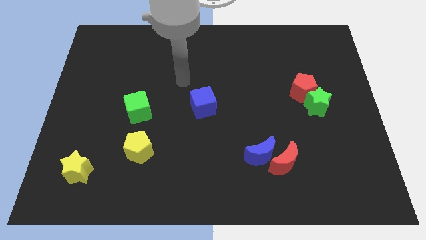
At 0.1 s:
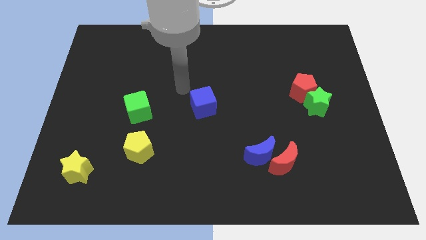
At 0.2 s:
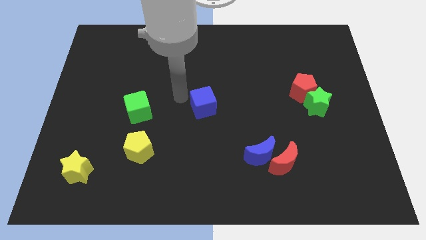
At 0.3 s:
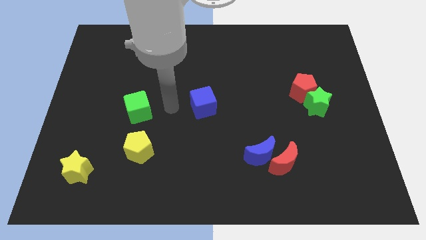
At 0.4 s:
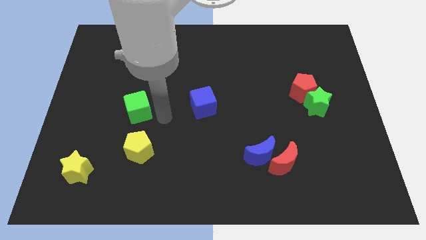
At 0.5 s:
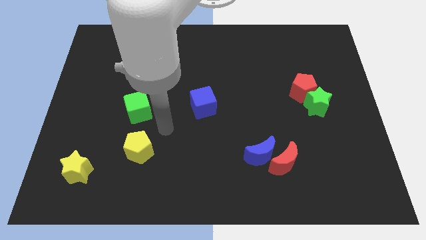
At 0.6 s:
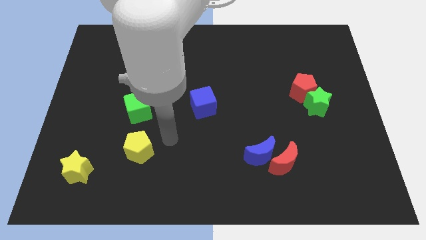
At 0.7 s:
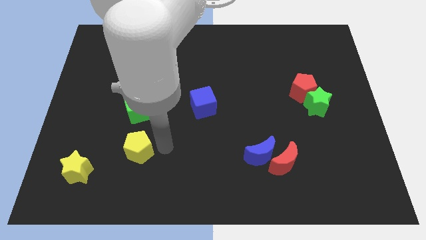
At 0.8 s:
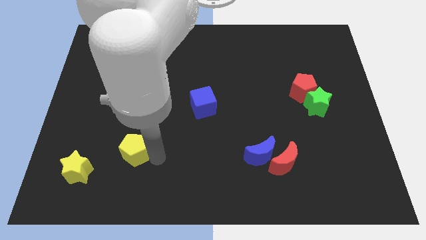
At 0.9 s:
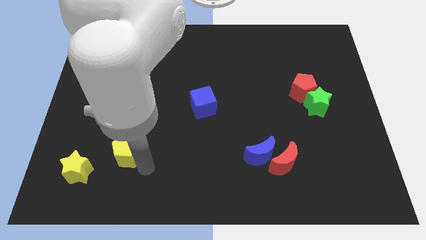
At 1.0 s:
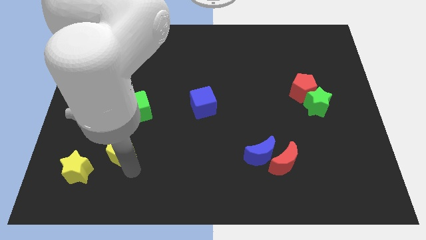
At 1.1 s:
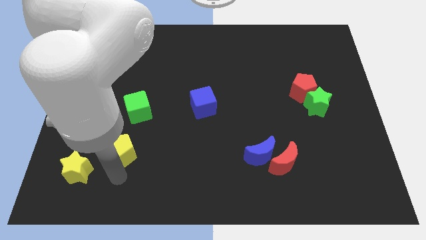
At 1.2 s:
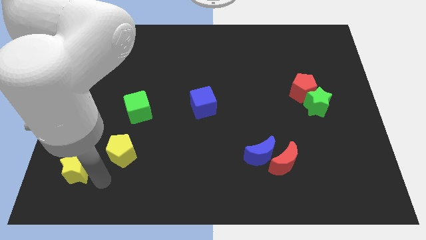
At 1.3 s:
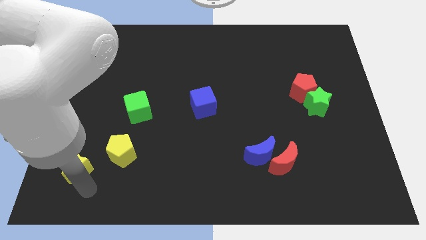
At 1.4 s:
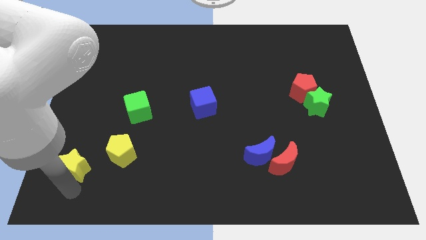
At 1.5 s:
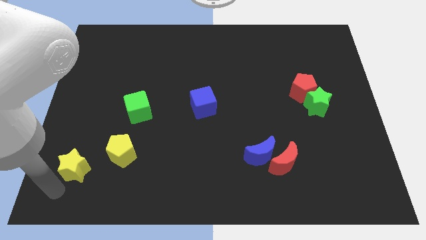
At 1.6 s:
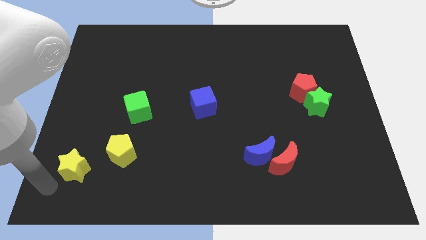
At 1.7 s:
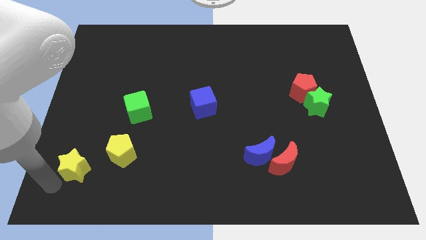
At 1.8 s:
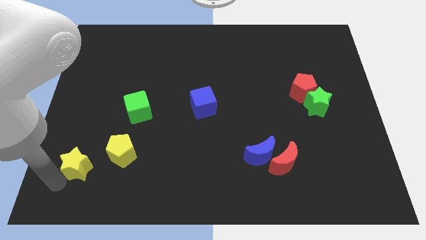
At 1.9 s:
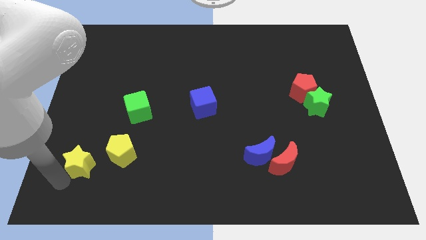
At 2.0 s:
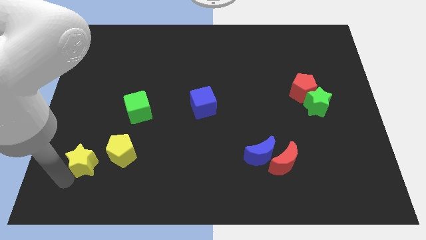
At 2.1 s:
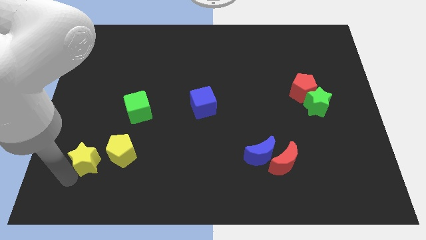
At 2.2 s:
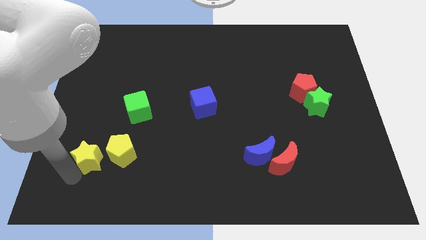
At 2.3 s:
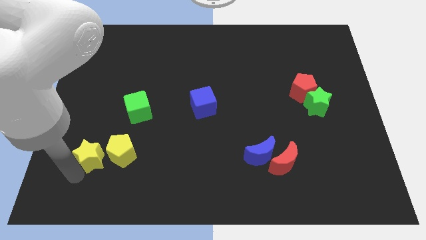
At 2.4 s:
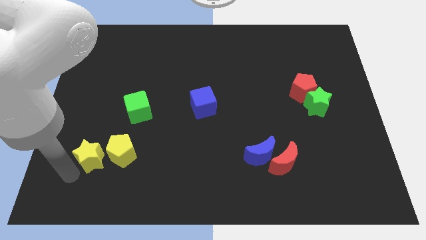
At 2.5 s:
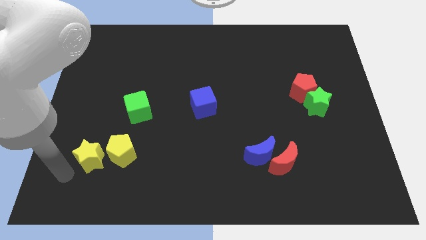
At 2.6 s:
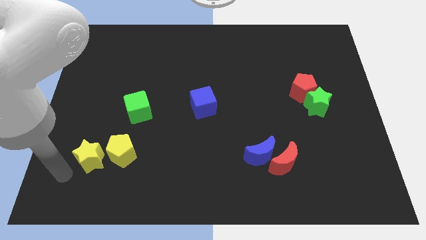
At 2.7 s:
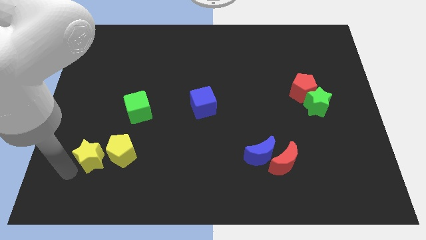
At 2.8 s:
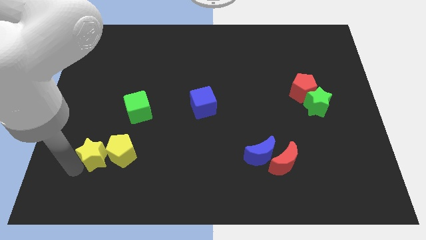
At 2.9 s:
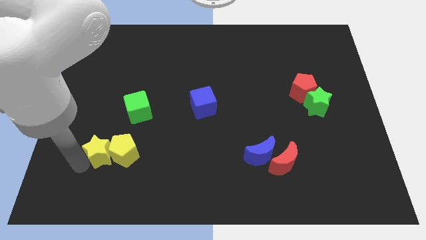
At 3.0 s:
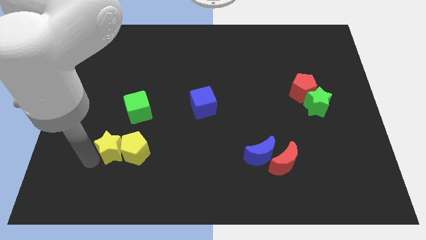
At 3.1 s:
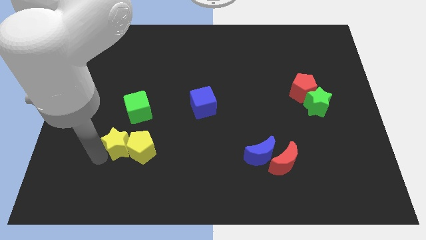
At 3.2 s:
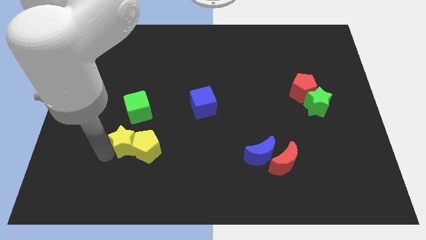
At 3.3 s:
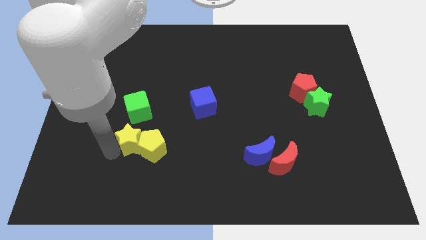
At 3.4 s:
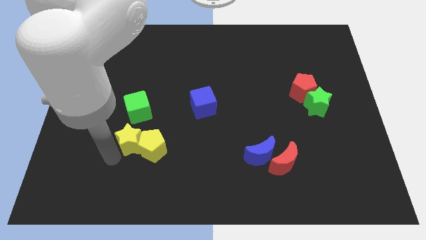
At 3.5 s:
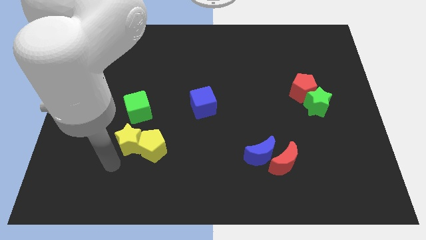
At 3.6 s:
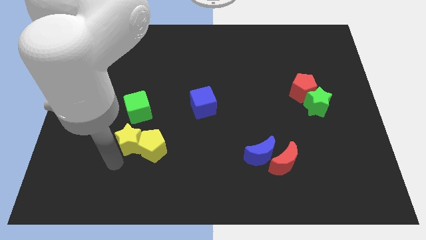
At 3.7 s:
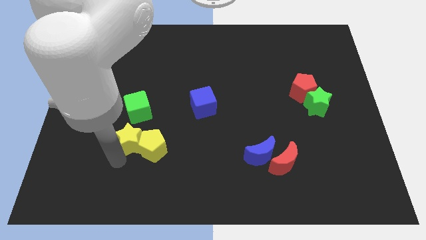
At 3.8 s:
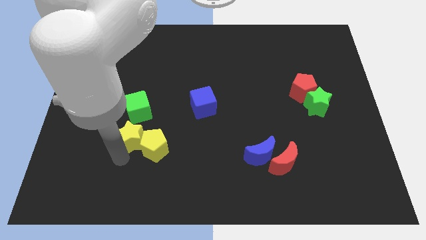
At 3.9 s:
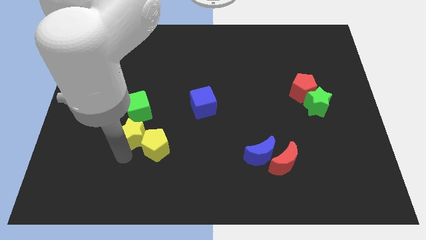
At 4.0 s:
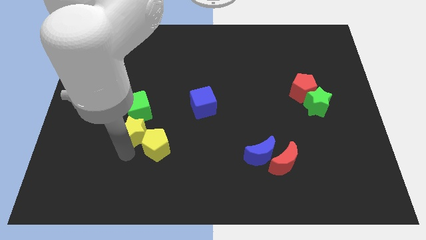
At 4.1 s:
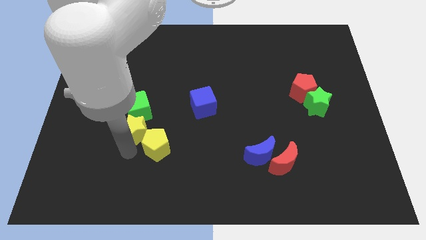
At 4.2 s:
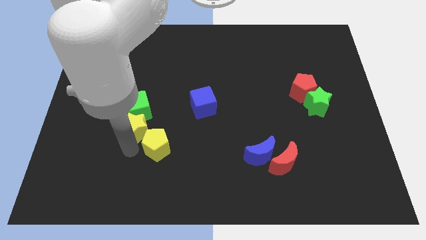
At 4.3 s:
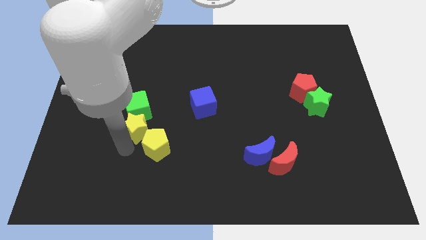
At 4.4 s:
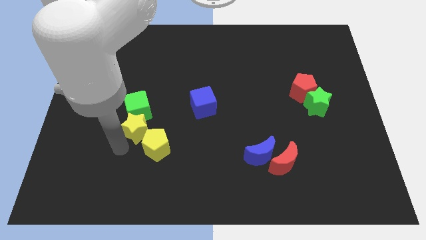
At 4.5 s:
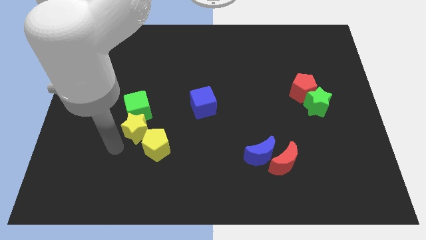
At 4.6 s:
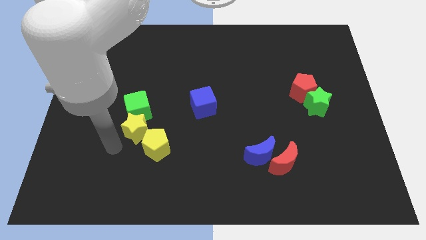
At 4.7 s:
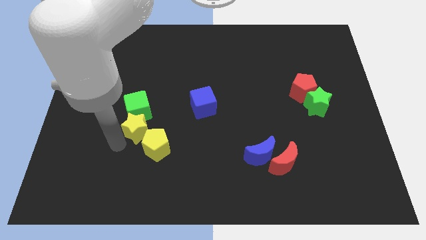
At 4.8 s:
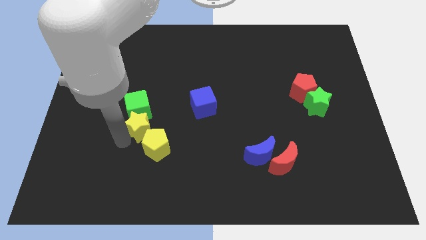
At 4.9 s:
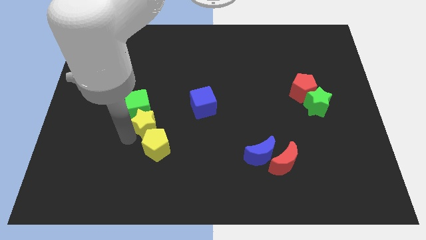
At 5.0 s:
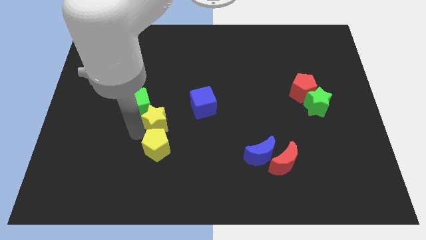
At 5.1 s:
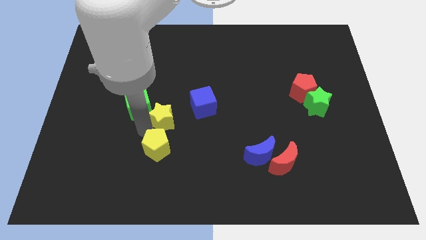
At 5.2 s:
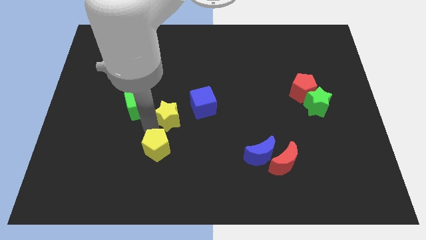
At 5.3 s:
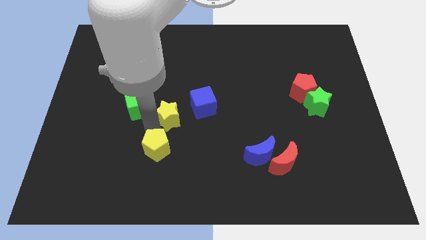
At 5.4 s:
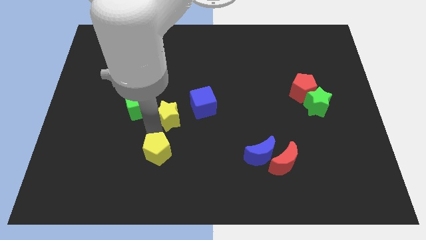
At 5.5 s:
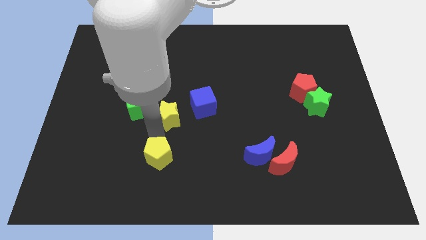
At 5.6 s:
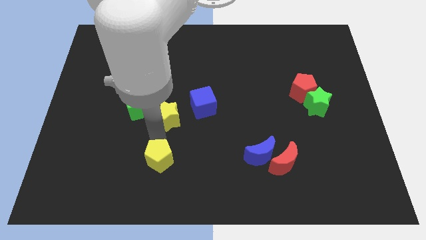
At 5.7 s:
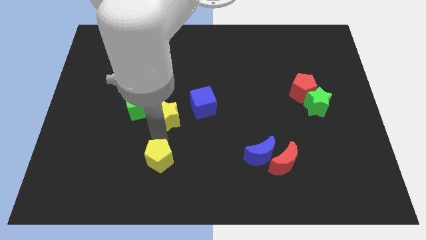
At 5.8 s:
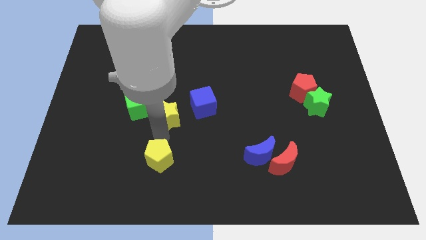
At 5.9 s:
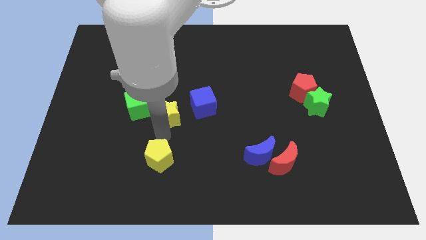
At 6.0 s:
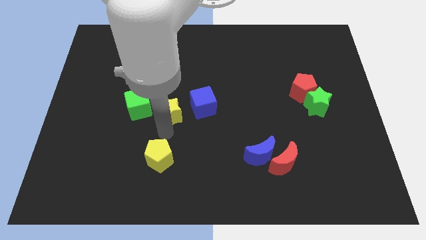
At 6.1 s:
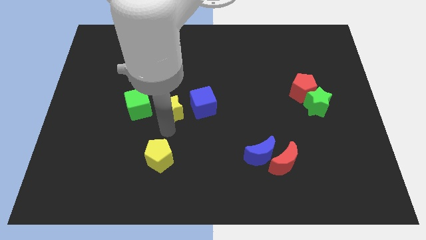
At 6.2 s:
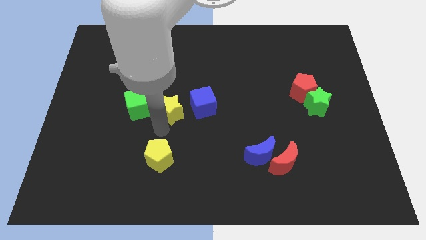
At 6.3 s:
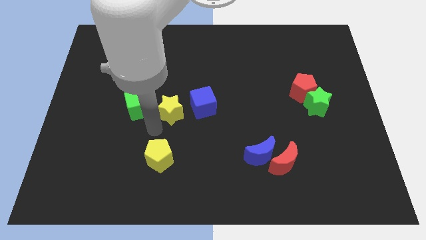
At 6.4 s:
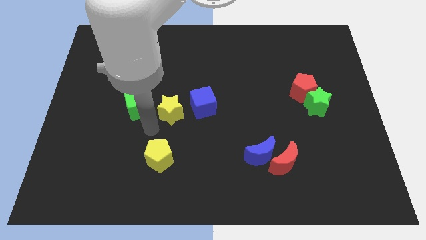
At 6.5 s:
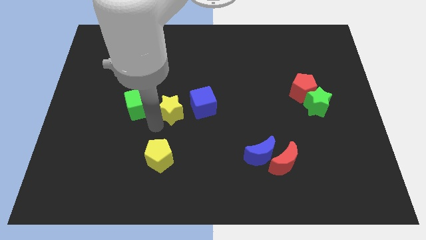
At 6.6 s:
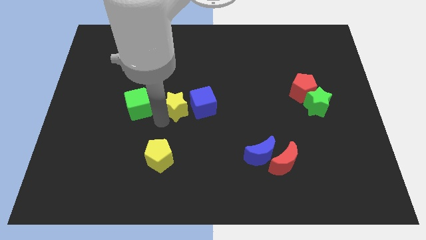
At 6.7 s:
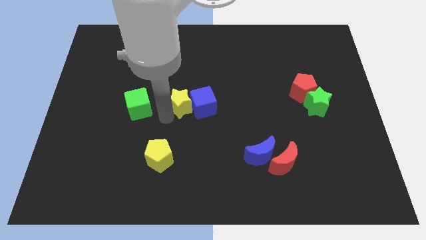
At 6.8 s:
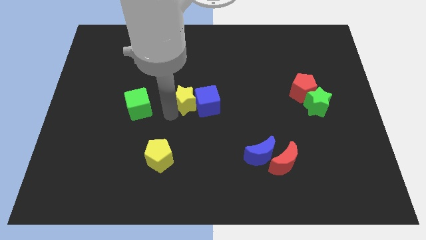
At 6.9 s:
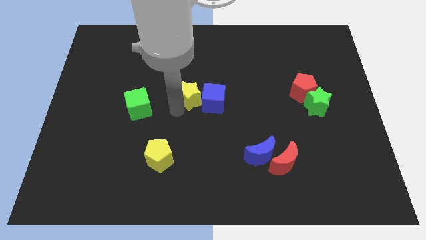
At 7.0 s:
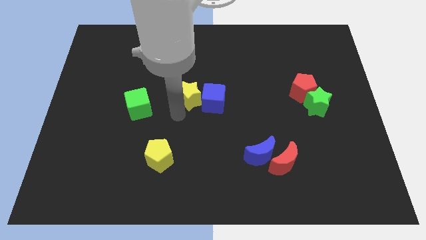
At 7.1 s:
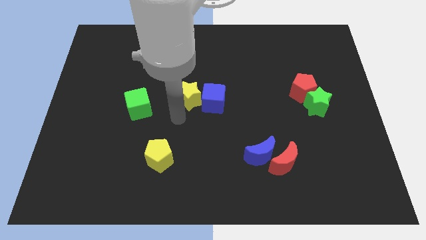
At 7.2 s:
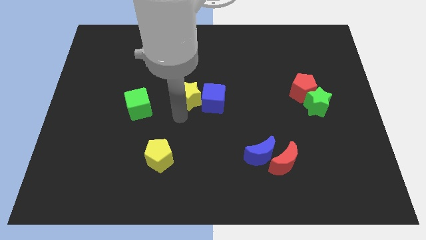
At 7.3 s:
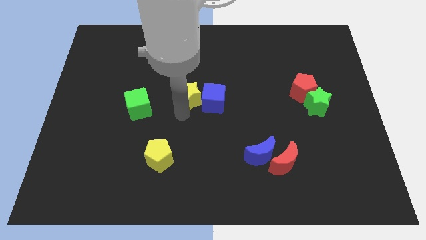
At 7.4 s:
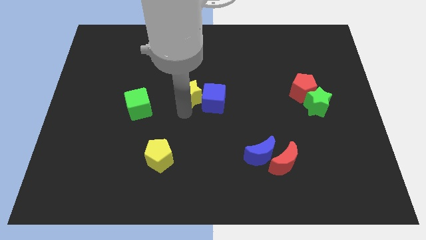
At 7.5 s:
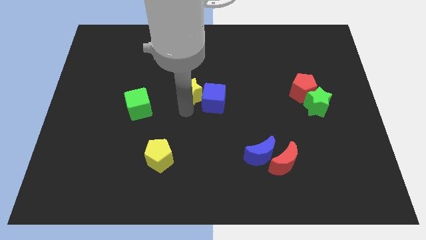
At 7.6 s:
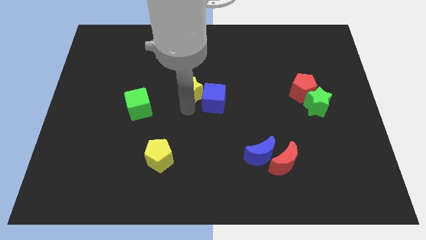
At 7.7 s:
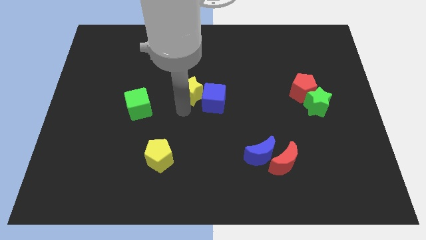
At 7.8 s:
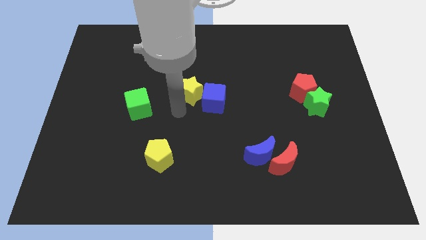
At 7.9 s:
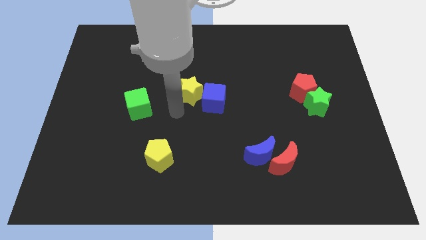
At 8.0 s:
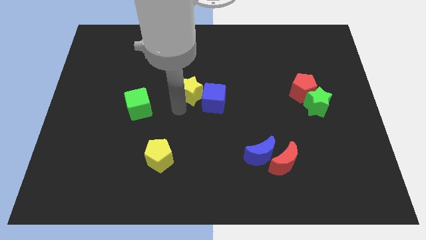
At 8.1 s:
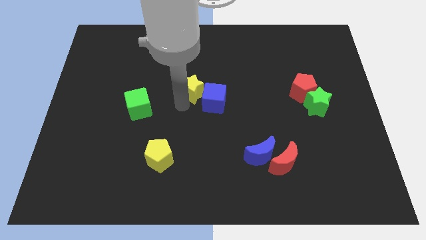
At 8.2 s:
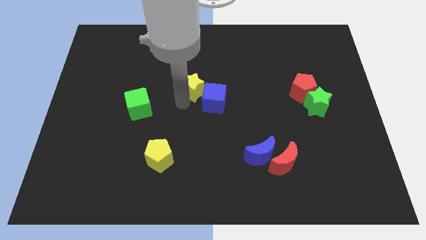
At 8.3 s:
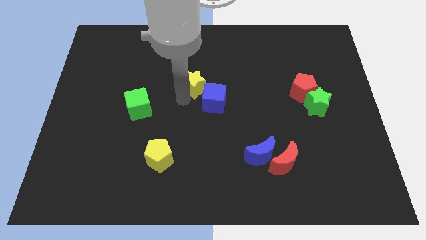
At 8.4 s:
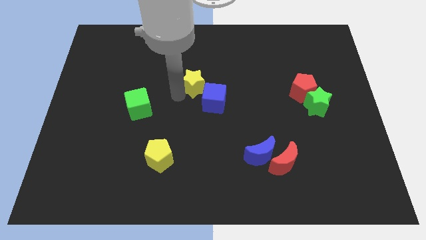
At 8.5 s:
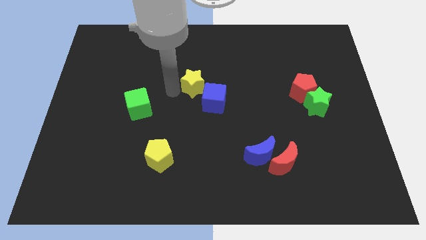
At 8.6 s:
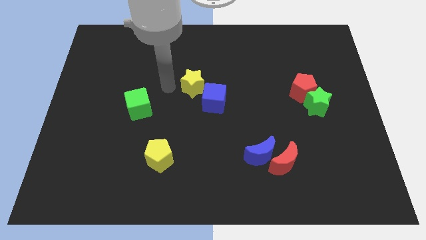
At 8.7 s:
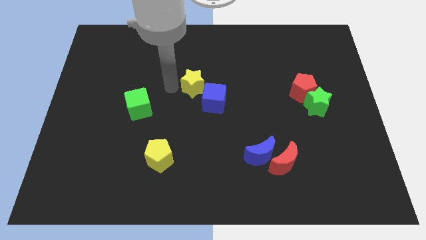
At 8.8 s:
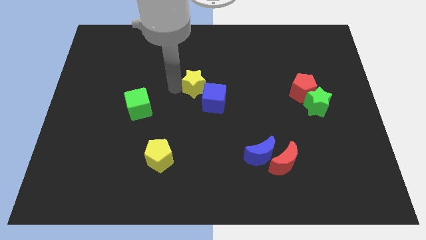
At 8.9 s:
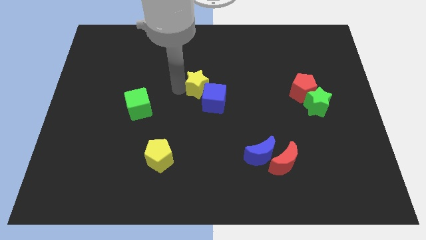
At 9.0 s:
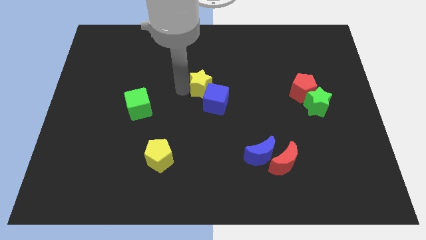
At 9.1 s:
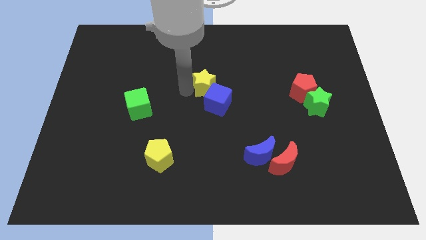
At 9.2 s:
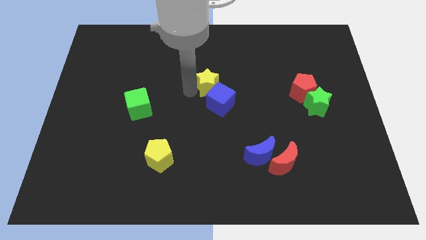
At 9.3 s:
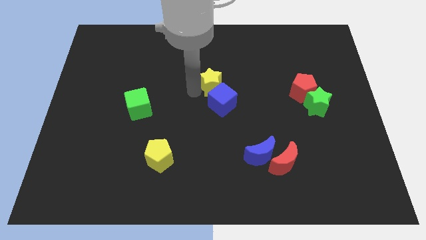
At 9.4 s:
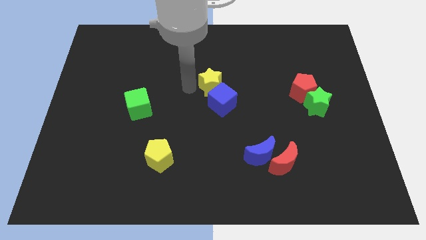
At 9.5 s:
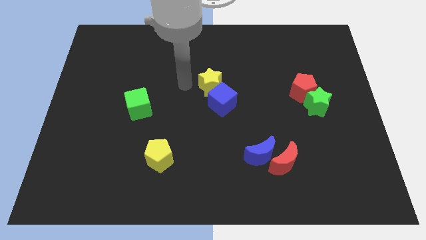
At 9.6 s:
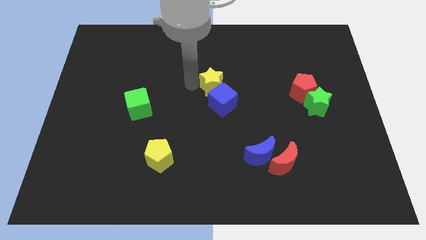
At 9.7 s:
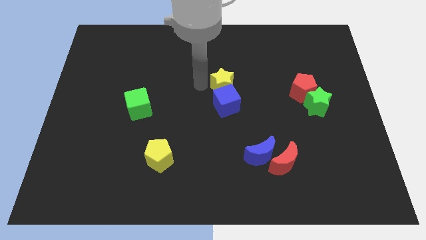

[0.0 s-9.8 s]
put the yellow star diagonally up and to the right of the blue cube
